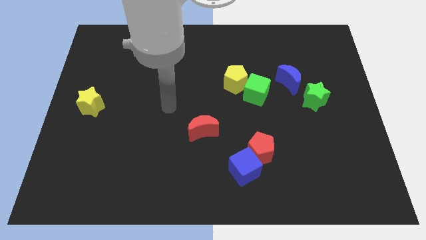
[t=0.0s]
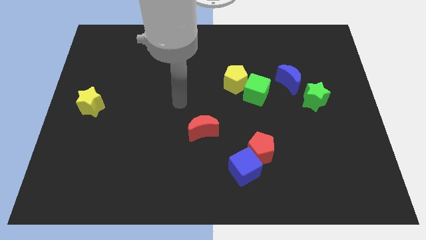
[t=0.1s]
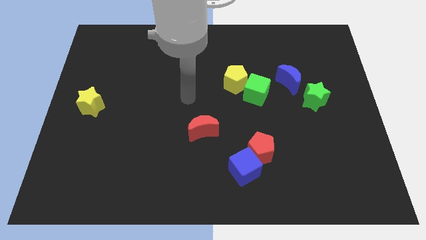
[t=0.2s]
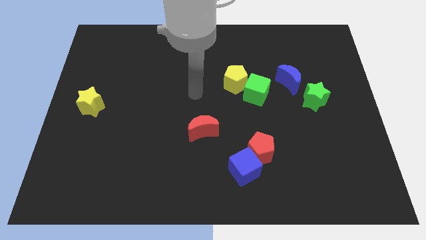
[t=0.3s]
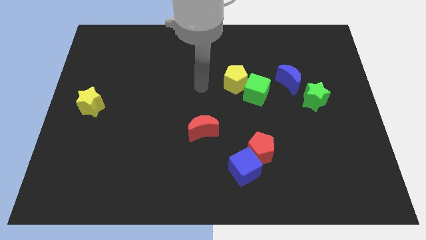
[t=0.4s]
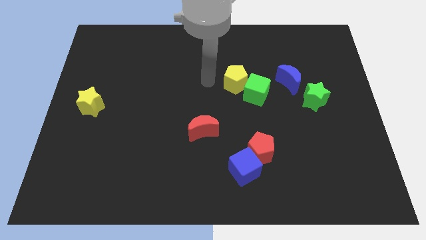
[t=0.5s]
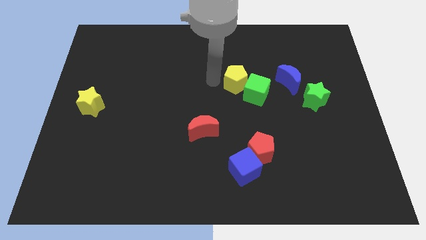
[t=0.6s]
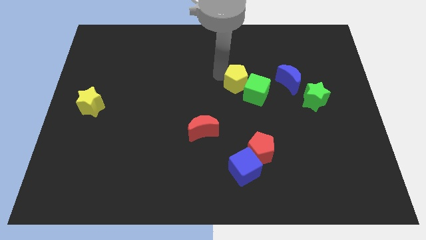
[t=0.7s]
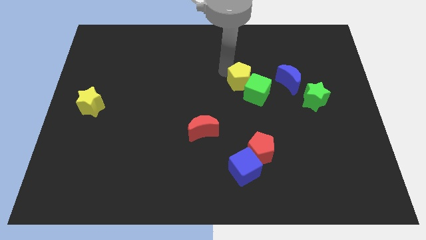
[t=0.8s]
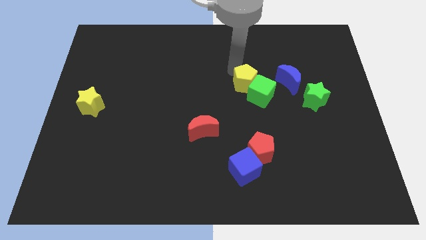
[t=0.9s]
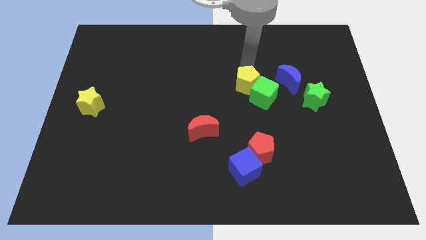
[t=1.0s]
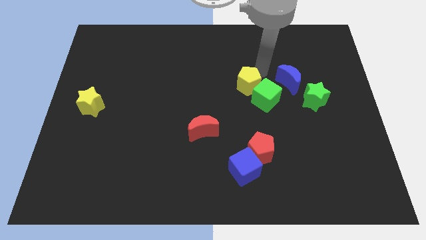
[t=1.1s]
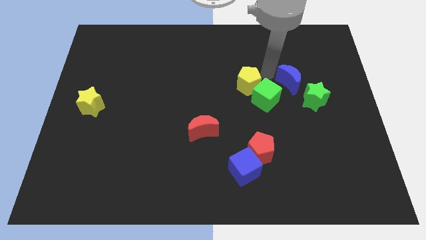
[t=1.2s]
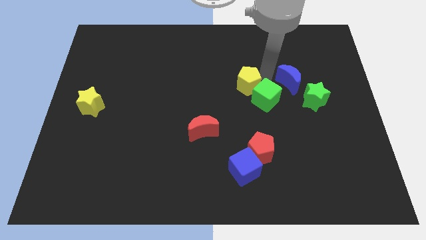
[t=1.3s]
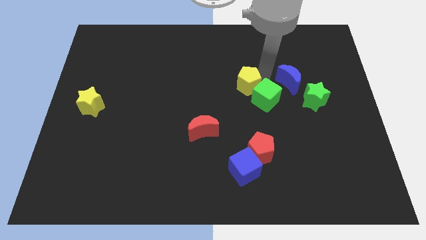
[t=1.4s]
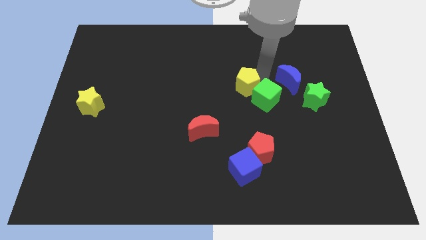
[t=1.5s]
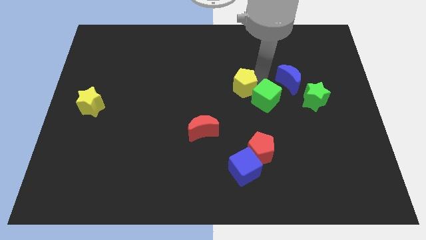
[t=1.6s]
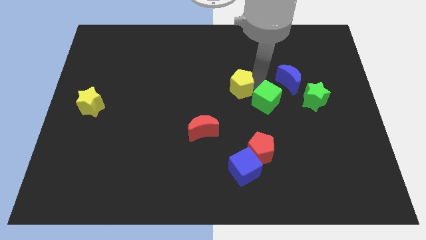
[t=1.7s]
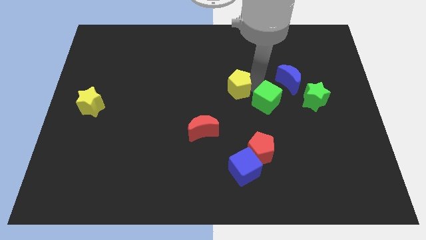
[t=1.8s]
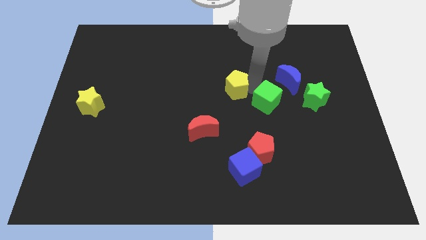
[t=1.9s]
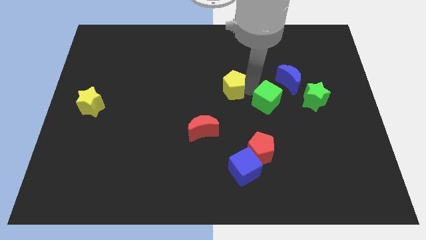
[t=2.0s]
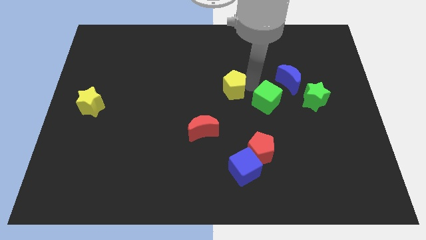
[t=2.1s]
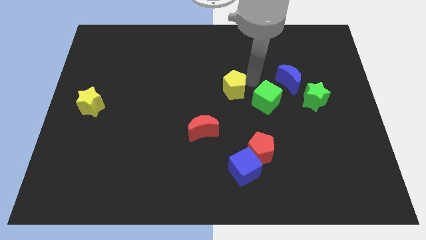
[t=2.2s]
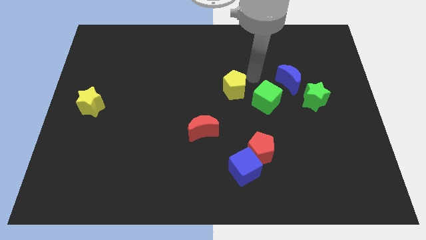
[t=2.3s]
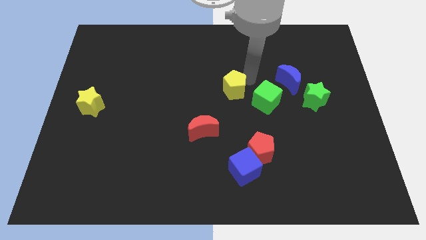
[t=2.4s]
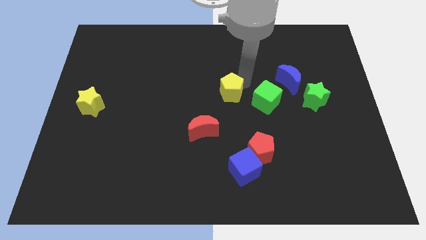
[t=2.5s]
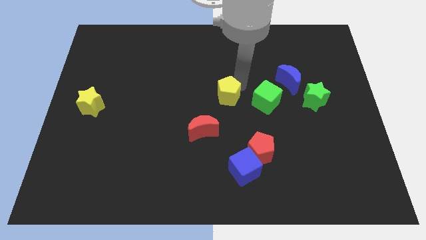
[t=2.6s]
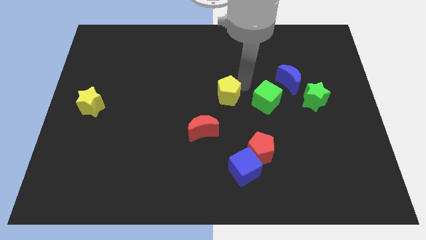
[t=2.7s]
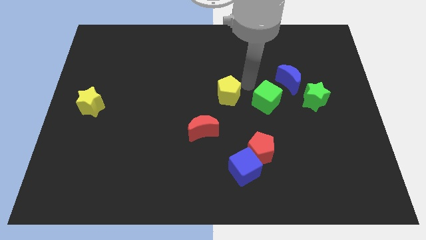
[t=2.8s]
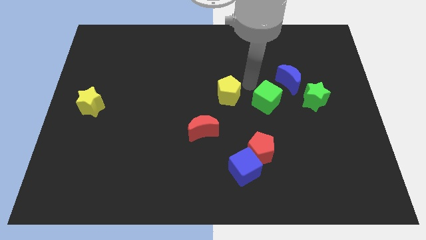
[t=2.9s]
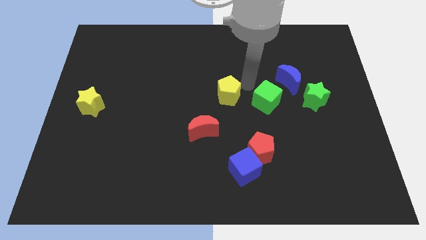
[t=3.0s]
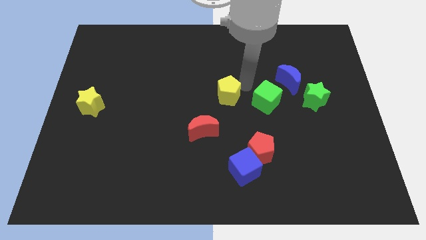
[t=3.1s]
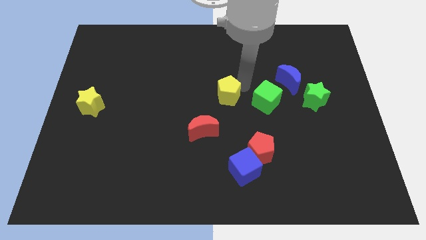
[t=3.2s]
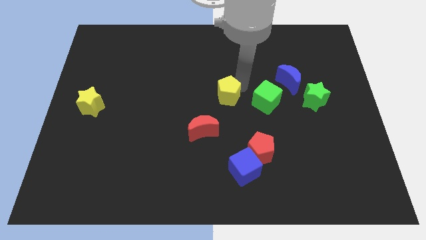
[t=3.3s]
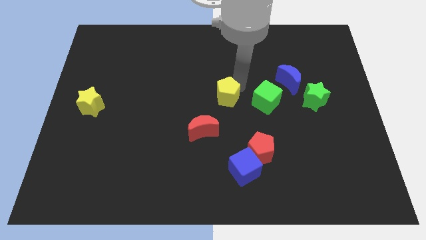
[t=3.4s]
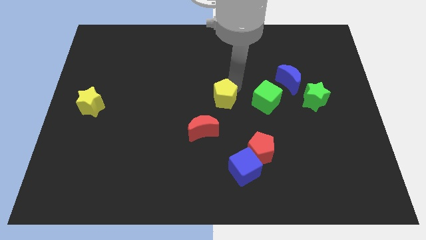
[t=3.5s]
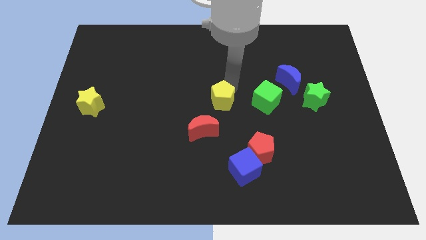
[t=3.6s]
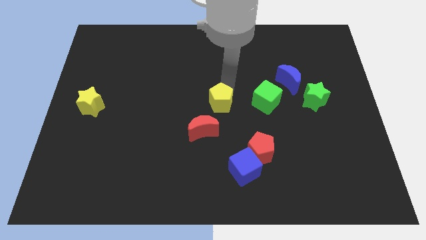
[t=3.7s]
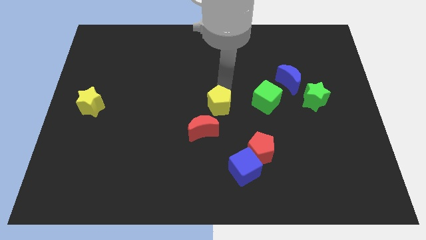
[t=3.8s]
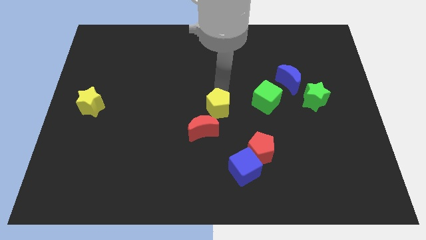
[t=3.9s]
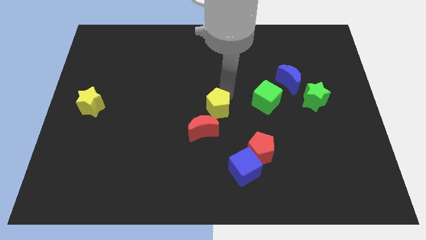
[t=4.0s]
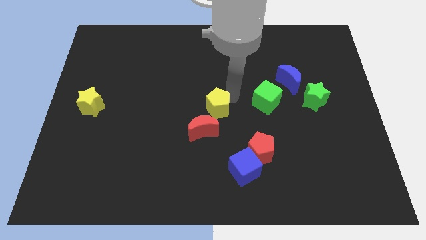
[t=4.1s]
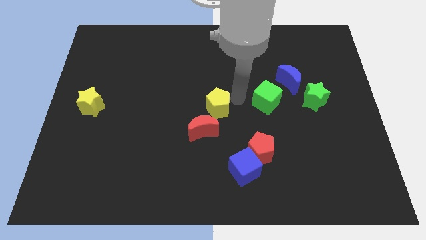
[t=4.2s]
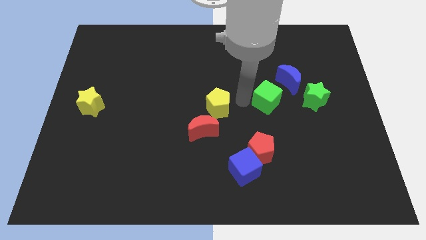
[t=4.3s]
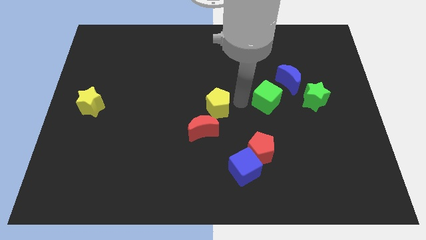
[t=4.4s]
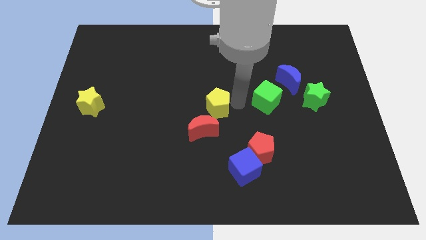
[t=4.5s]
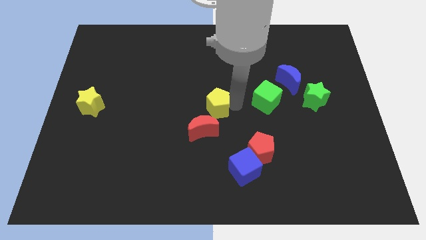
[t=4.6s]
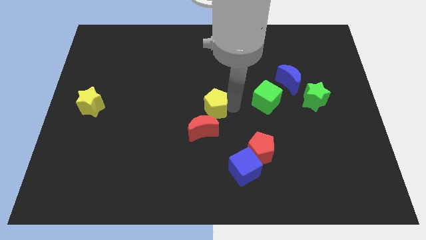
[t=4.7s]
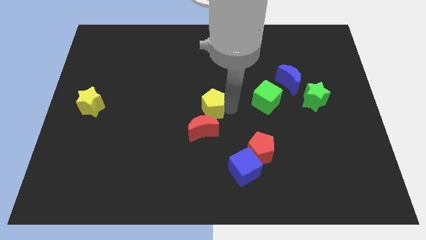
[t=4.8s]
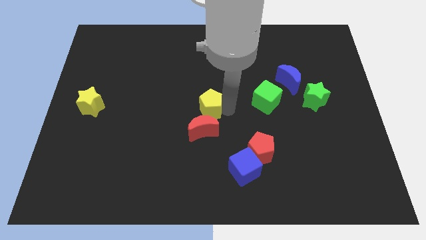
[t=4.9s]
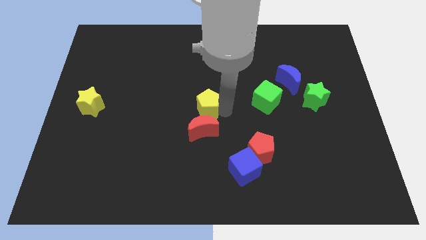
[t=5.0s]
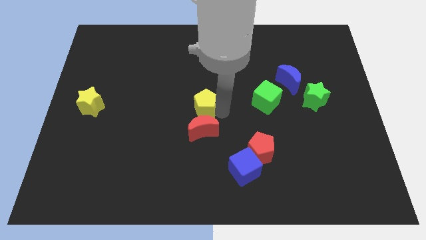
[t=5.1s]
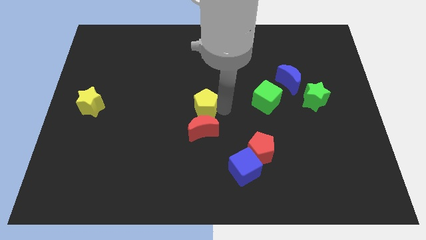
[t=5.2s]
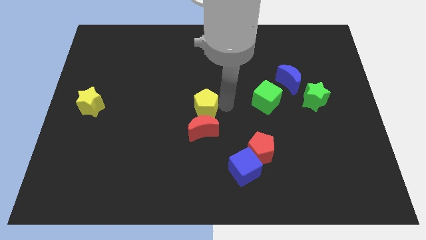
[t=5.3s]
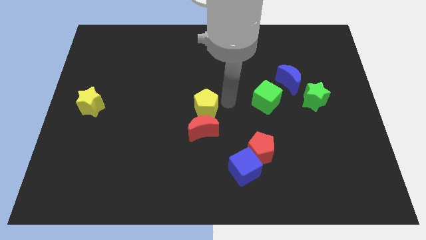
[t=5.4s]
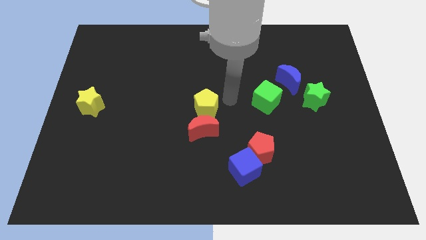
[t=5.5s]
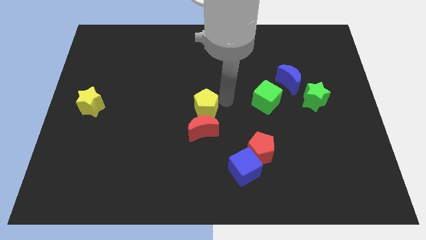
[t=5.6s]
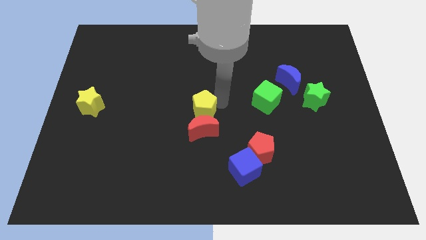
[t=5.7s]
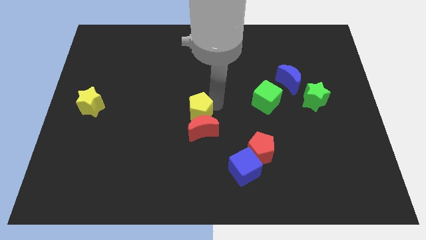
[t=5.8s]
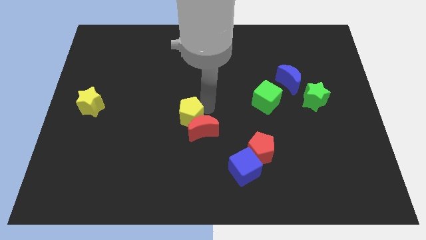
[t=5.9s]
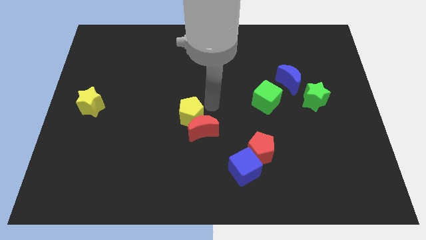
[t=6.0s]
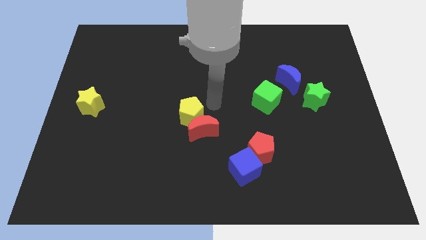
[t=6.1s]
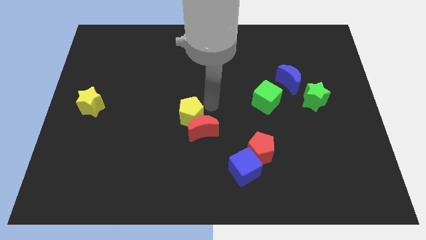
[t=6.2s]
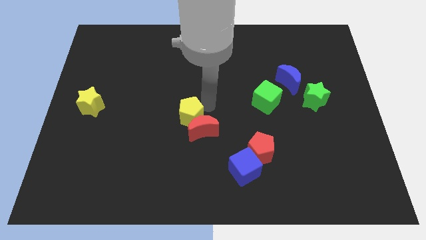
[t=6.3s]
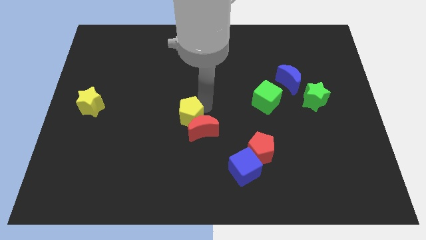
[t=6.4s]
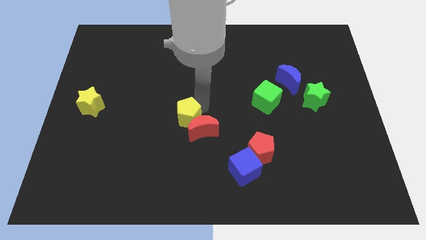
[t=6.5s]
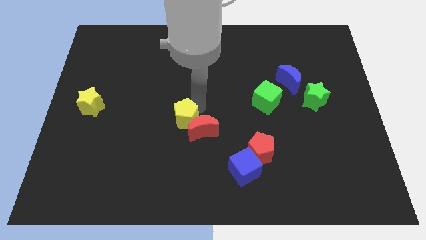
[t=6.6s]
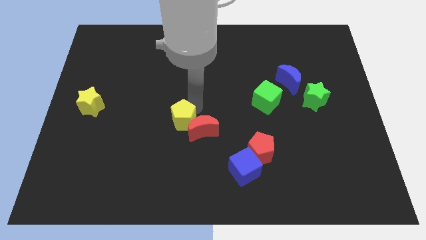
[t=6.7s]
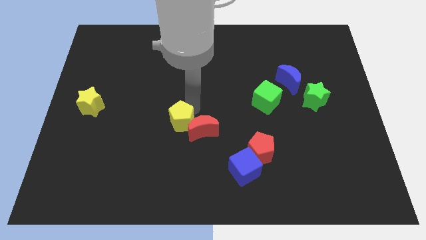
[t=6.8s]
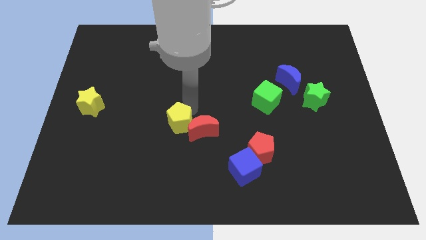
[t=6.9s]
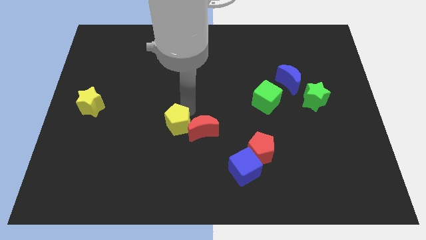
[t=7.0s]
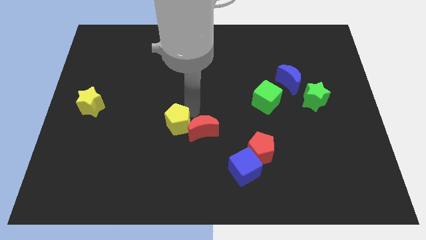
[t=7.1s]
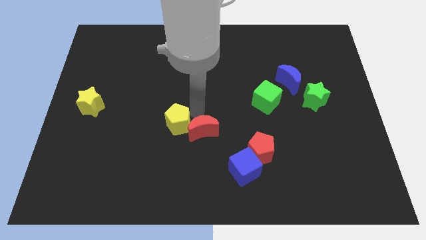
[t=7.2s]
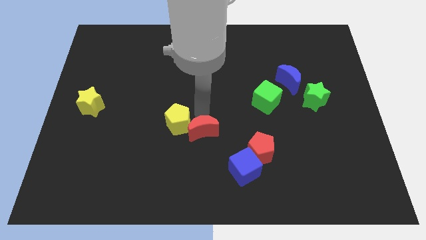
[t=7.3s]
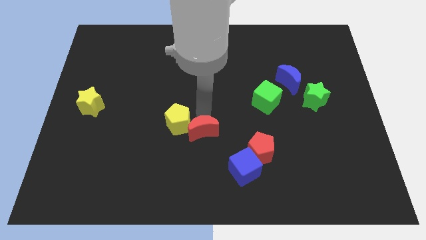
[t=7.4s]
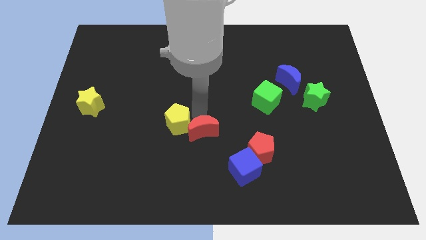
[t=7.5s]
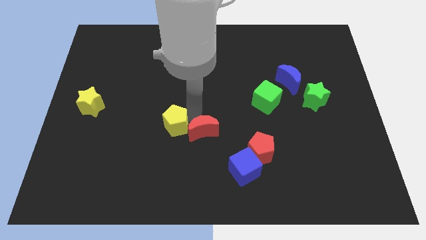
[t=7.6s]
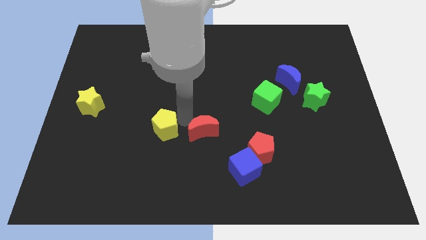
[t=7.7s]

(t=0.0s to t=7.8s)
move the yellow pentagon downwards and then to the left

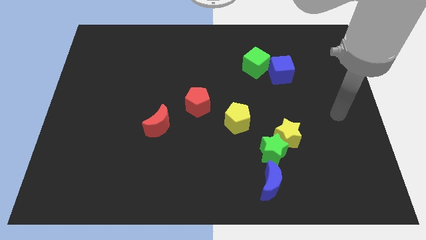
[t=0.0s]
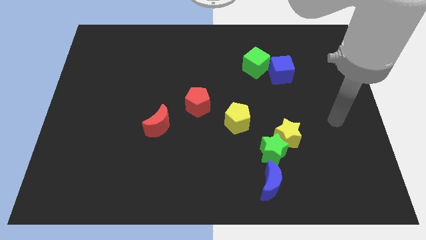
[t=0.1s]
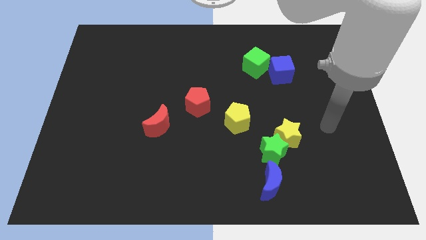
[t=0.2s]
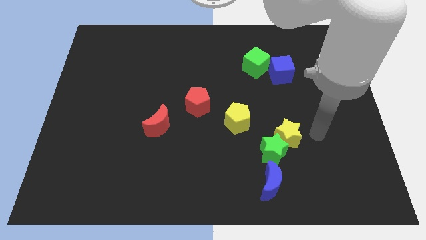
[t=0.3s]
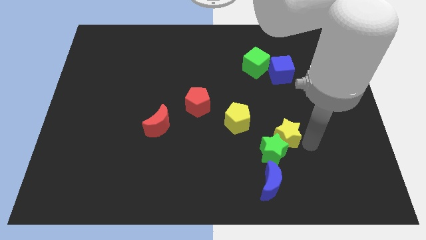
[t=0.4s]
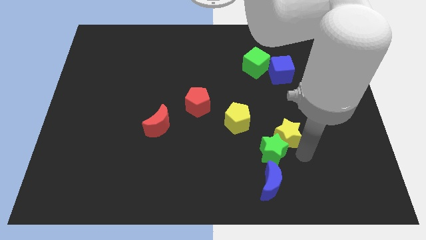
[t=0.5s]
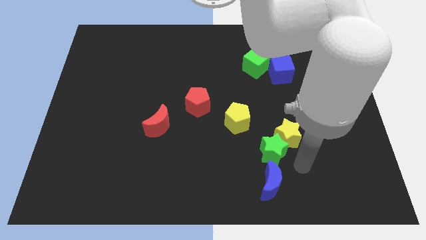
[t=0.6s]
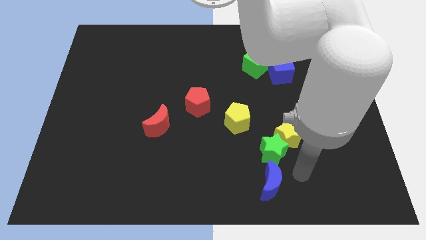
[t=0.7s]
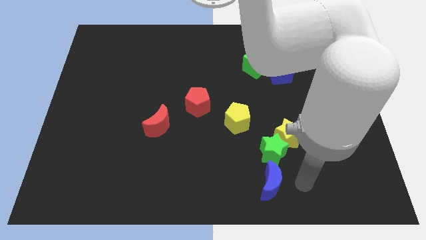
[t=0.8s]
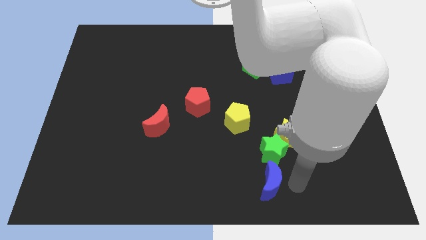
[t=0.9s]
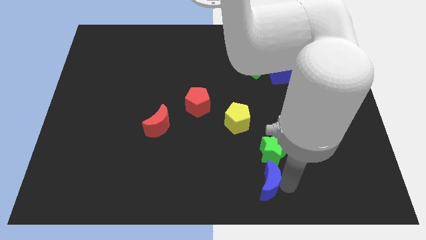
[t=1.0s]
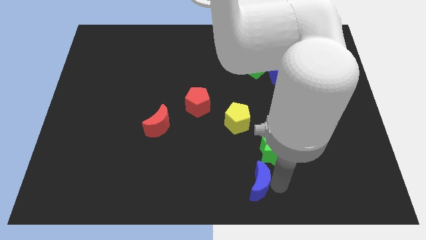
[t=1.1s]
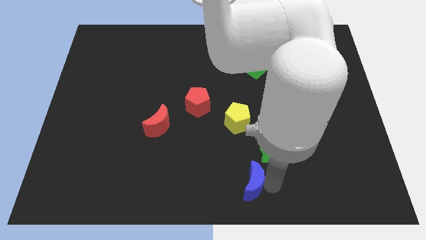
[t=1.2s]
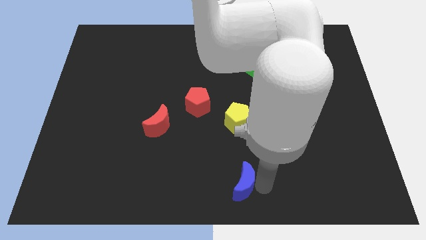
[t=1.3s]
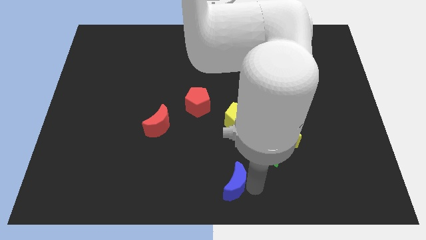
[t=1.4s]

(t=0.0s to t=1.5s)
move the blue moon a little bit to the left
